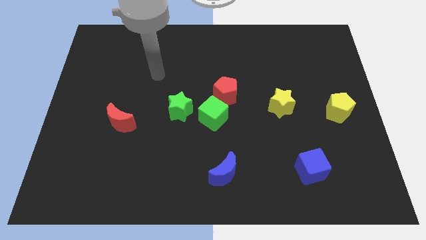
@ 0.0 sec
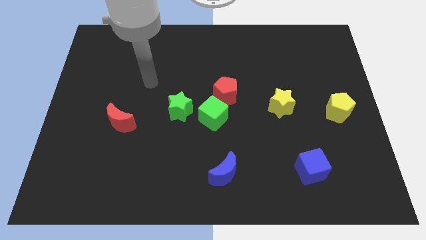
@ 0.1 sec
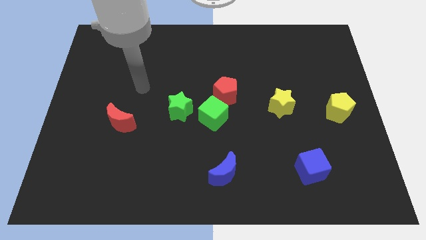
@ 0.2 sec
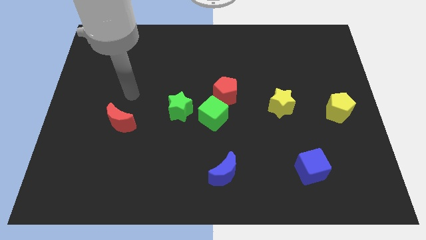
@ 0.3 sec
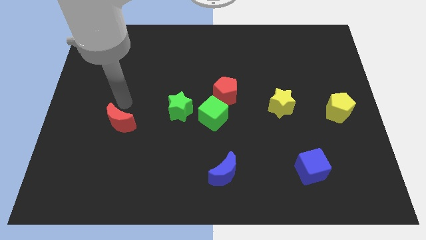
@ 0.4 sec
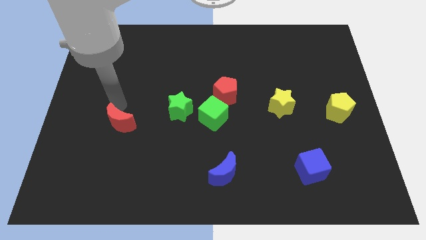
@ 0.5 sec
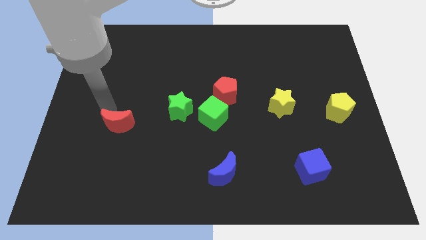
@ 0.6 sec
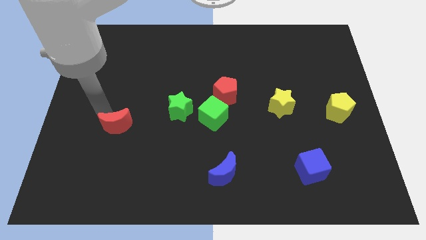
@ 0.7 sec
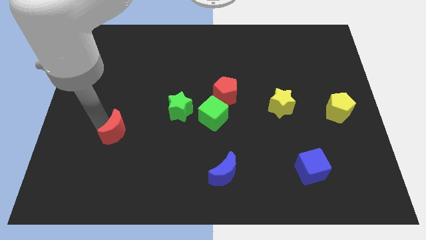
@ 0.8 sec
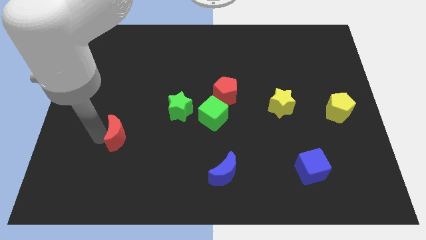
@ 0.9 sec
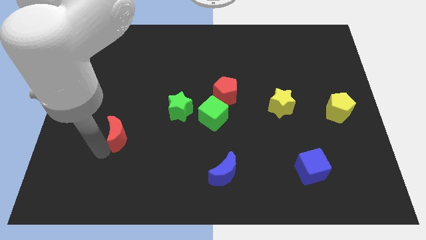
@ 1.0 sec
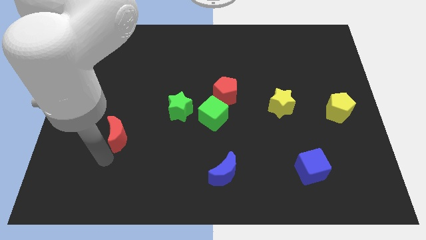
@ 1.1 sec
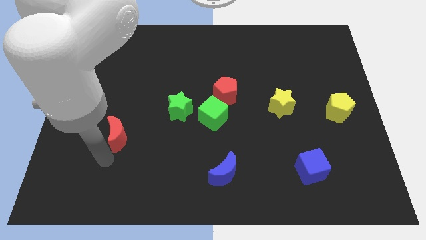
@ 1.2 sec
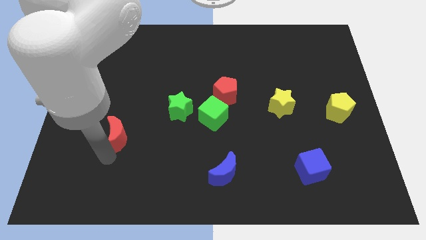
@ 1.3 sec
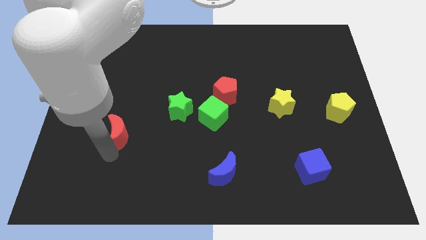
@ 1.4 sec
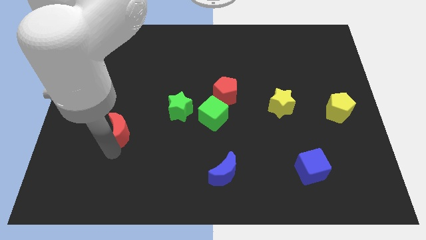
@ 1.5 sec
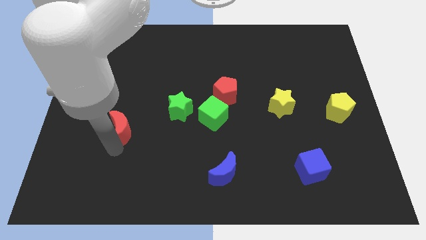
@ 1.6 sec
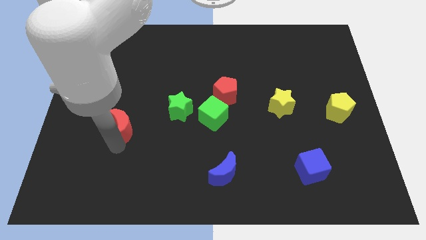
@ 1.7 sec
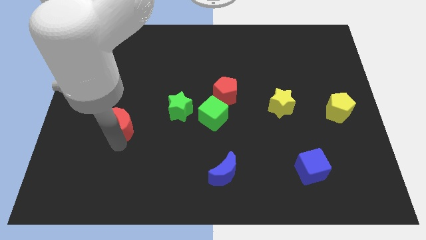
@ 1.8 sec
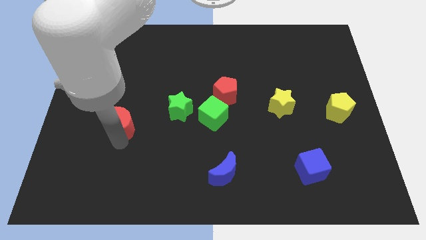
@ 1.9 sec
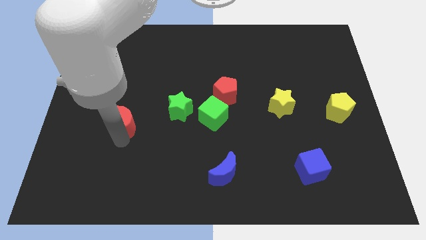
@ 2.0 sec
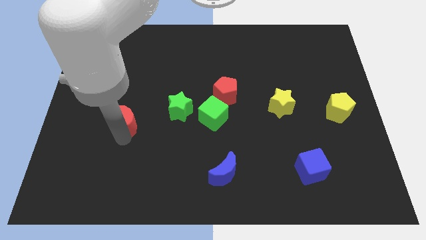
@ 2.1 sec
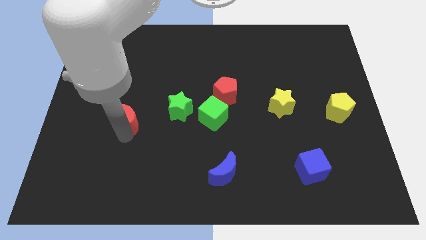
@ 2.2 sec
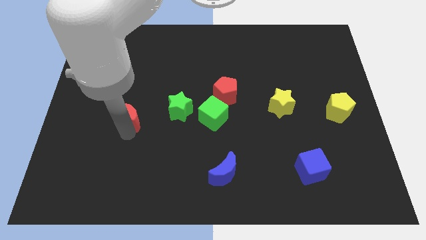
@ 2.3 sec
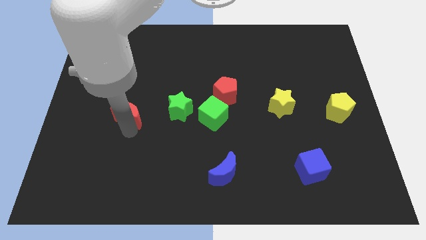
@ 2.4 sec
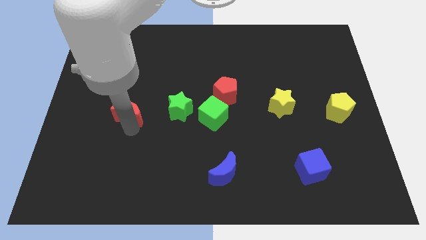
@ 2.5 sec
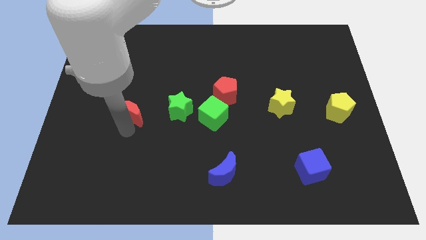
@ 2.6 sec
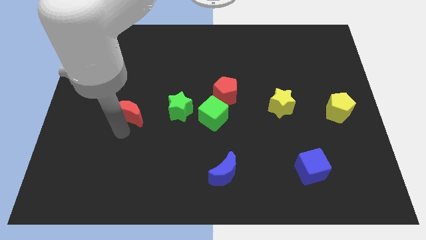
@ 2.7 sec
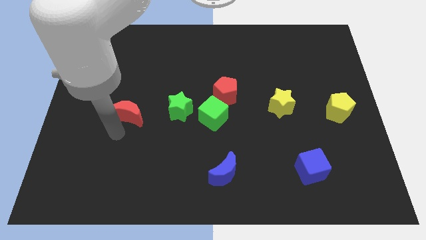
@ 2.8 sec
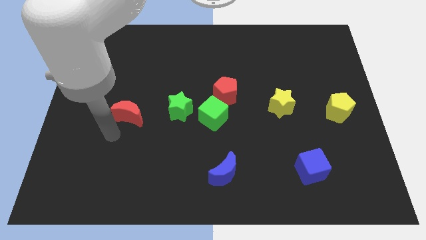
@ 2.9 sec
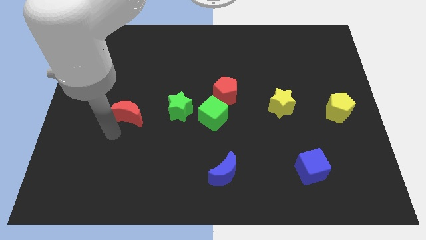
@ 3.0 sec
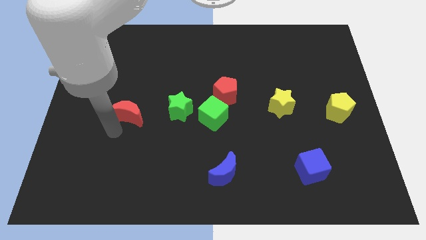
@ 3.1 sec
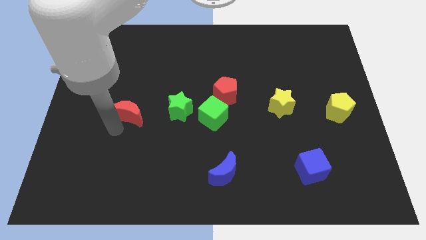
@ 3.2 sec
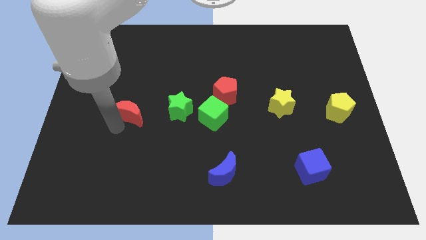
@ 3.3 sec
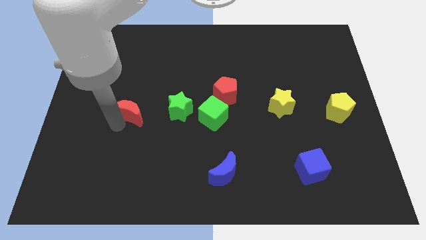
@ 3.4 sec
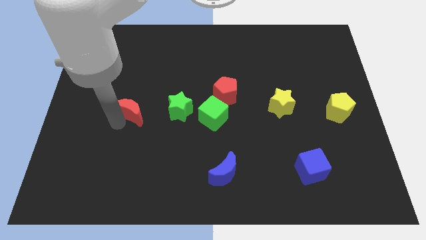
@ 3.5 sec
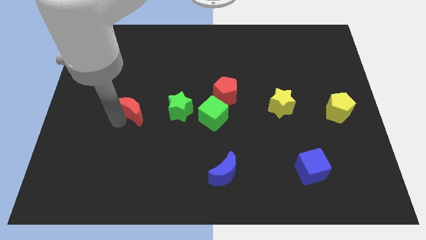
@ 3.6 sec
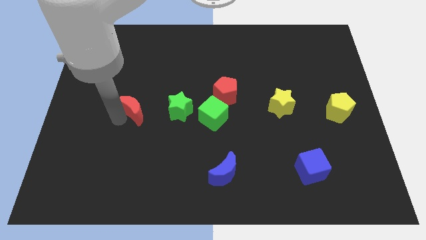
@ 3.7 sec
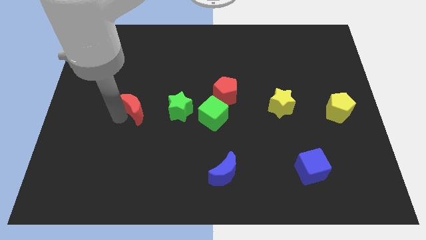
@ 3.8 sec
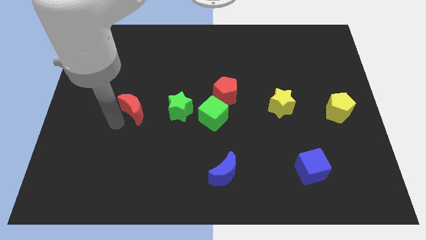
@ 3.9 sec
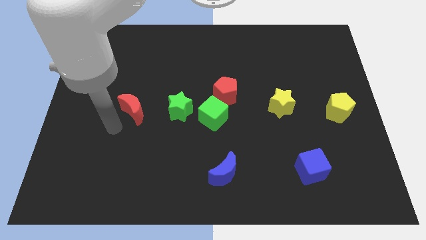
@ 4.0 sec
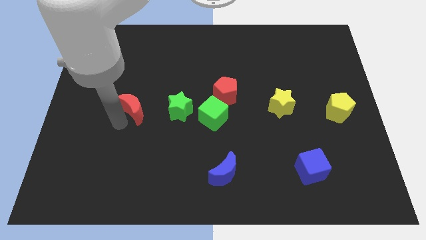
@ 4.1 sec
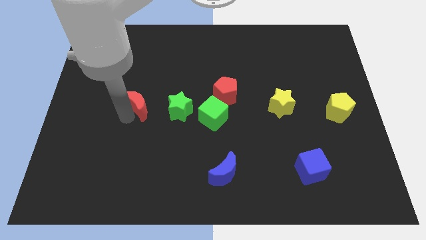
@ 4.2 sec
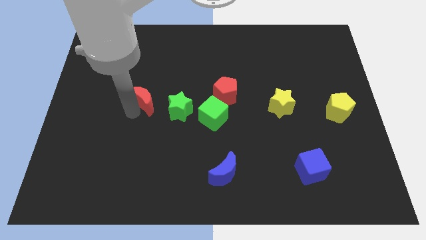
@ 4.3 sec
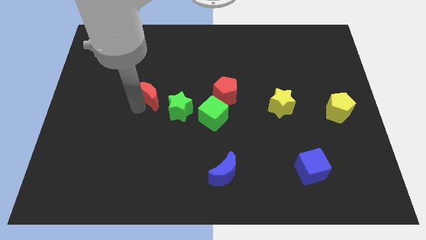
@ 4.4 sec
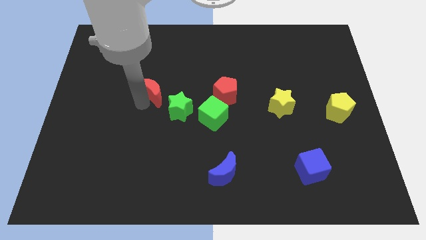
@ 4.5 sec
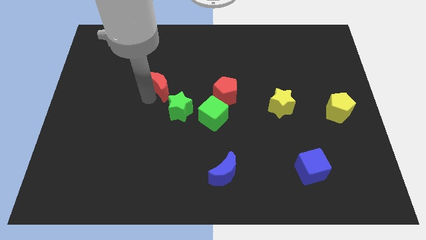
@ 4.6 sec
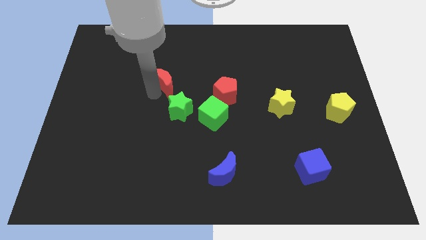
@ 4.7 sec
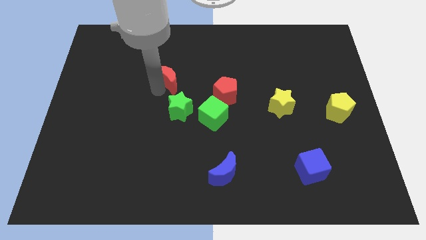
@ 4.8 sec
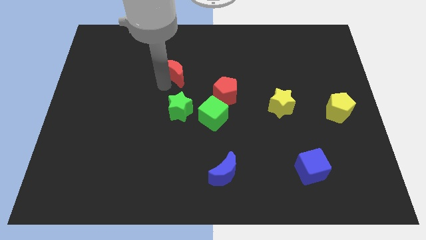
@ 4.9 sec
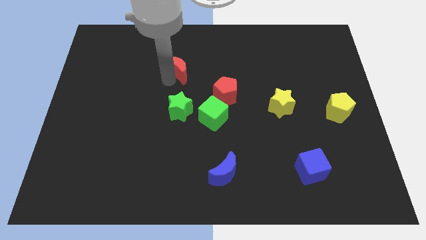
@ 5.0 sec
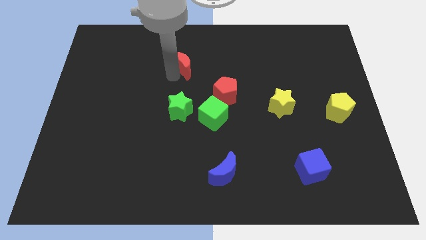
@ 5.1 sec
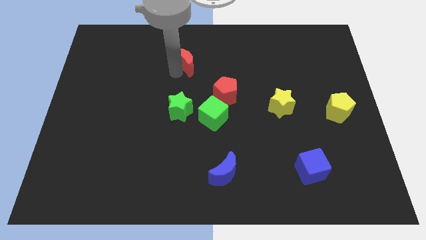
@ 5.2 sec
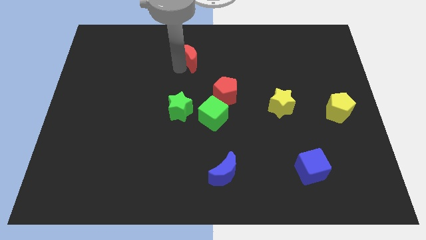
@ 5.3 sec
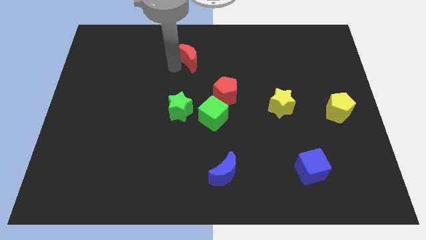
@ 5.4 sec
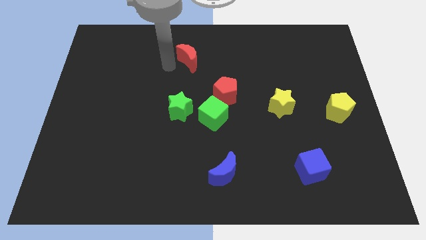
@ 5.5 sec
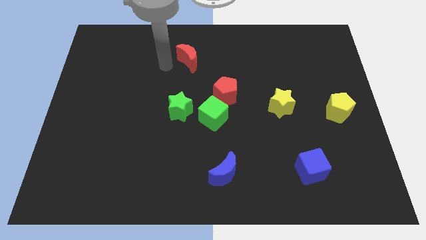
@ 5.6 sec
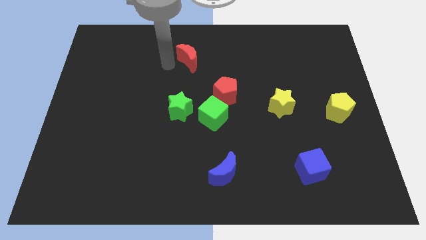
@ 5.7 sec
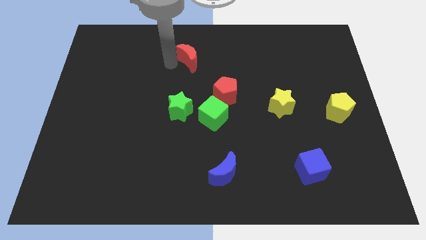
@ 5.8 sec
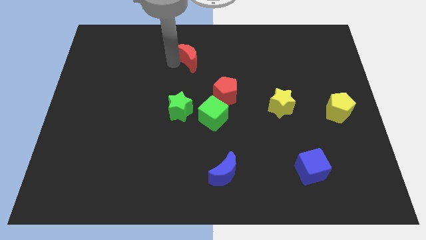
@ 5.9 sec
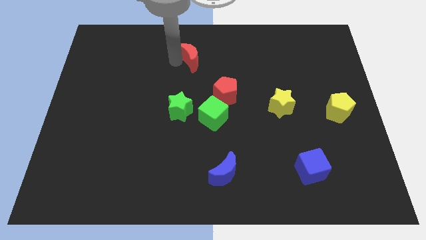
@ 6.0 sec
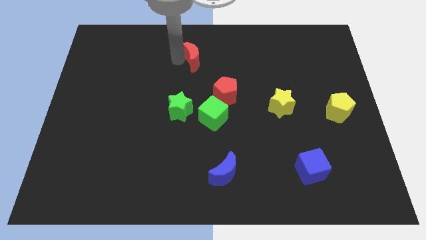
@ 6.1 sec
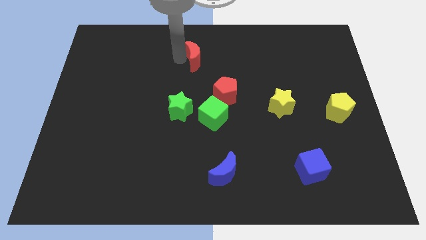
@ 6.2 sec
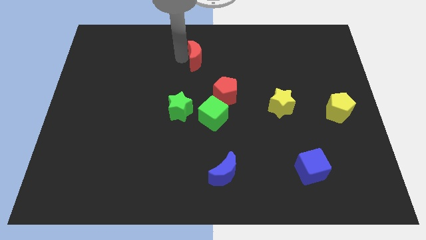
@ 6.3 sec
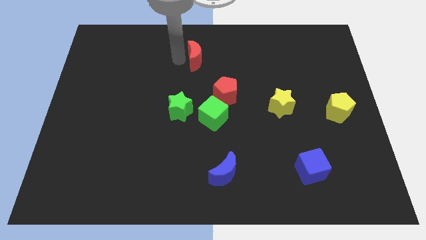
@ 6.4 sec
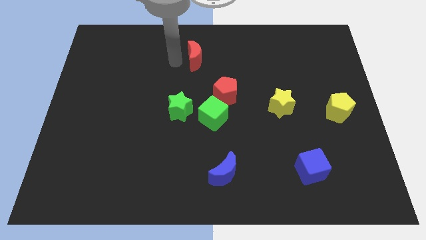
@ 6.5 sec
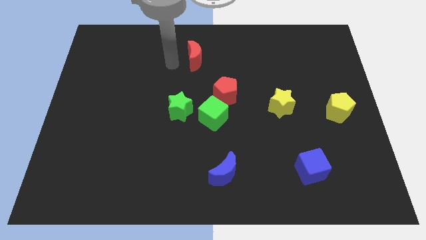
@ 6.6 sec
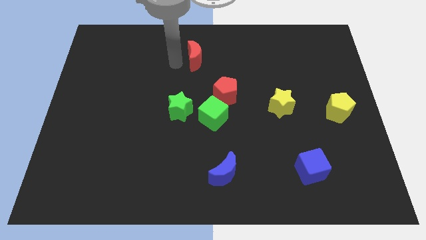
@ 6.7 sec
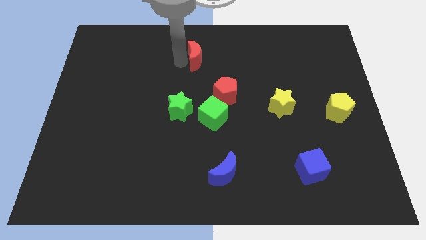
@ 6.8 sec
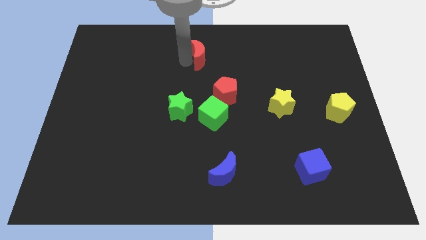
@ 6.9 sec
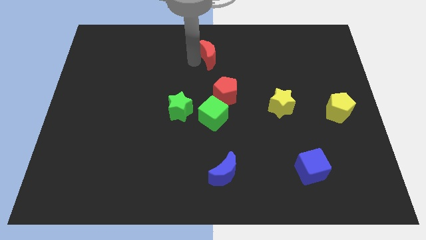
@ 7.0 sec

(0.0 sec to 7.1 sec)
push the red moon to the top
